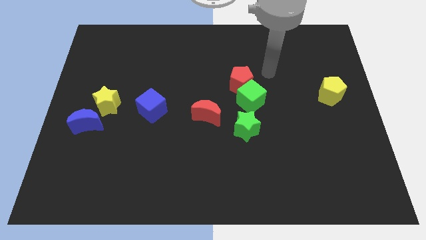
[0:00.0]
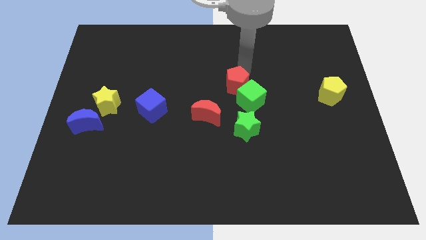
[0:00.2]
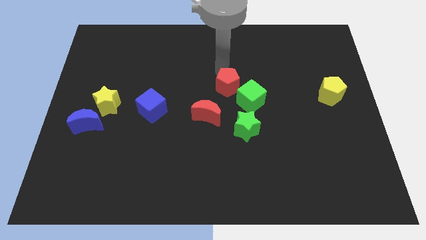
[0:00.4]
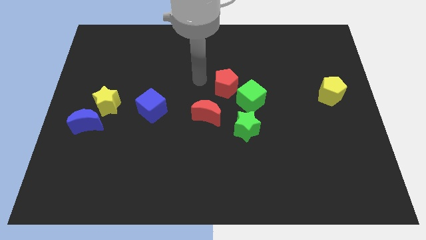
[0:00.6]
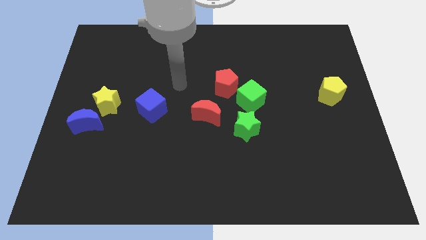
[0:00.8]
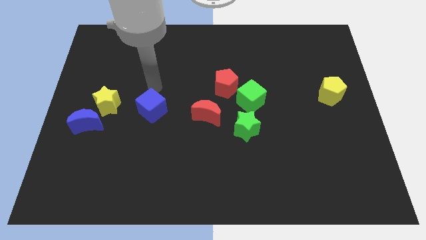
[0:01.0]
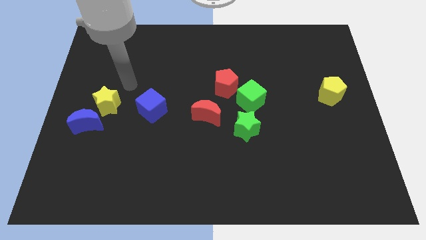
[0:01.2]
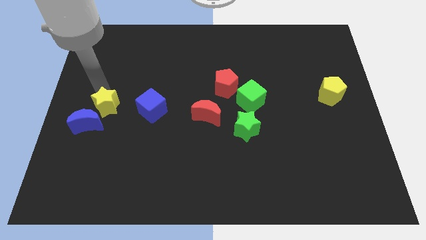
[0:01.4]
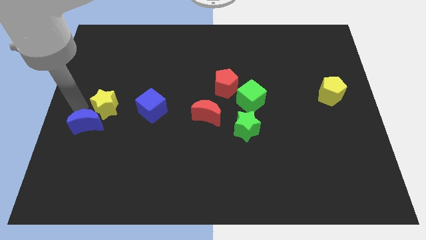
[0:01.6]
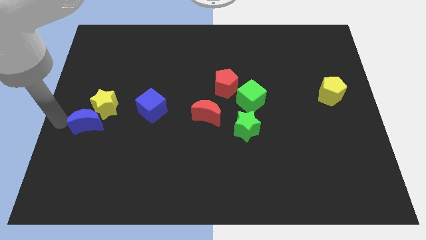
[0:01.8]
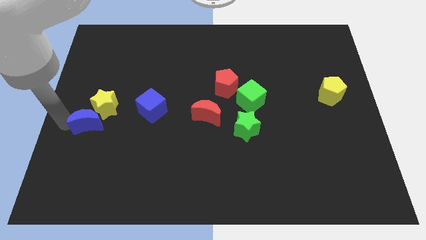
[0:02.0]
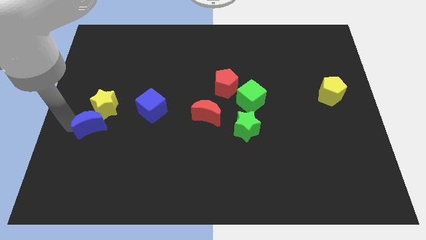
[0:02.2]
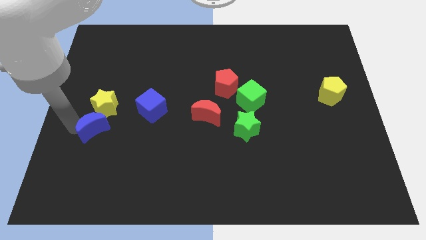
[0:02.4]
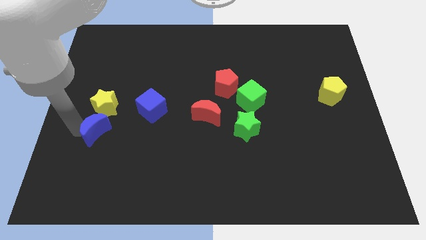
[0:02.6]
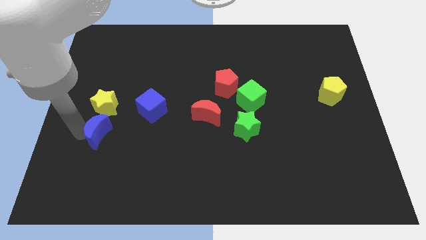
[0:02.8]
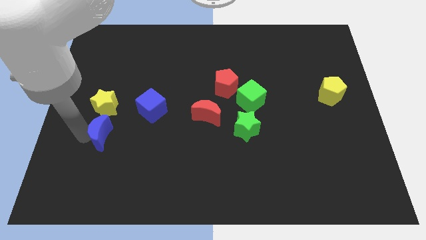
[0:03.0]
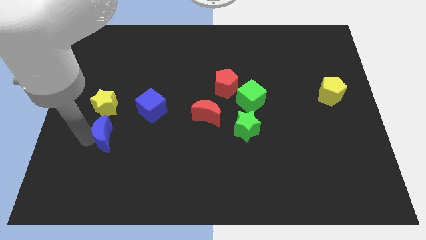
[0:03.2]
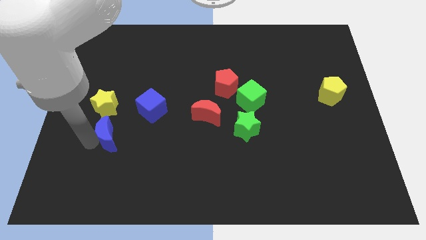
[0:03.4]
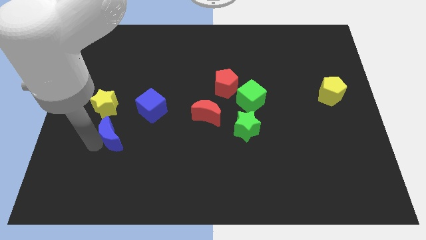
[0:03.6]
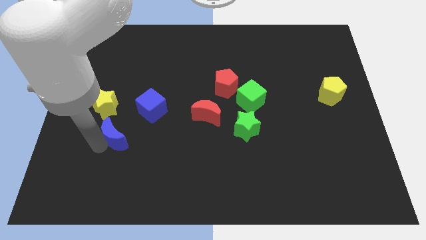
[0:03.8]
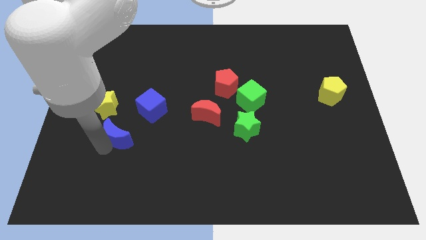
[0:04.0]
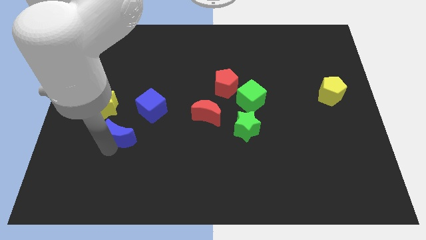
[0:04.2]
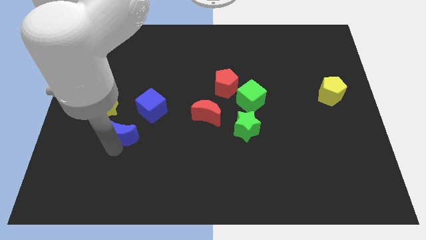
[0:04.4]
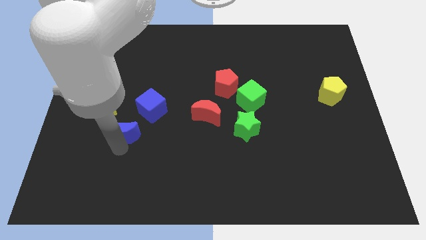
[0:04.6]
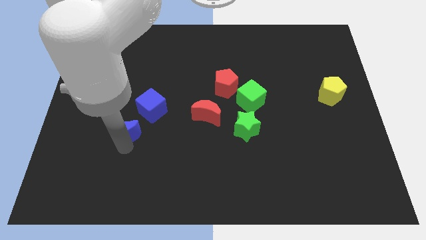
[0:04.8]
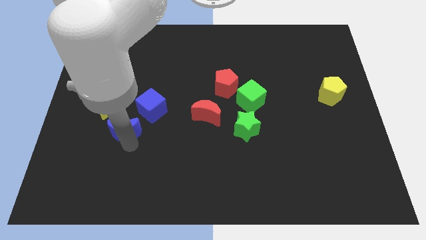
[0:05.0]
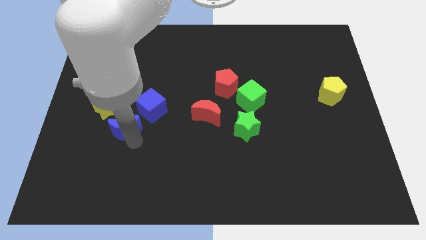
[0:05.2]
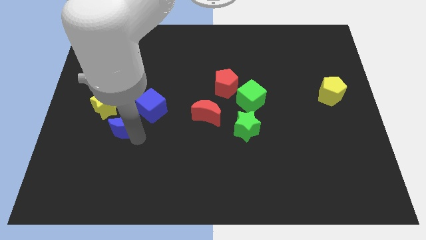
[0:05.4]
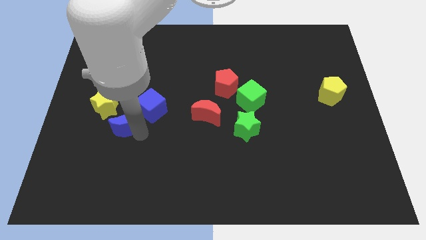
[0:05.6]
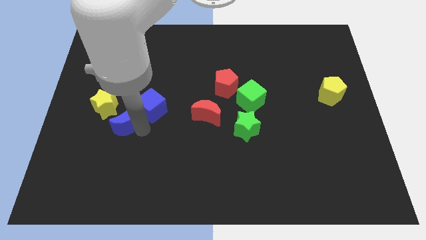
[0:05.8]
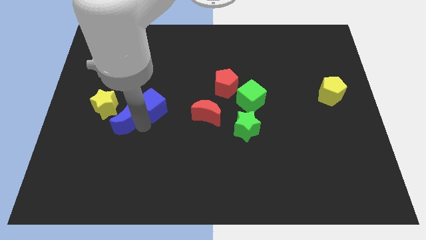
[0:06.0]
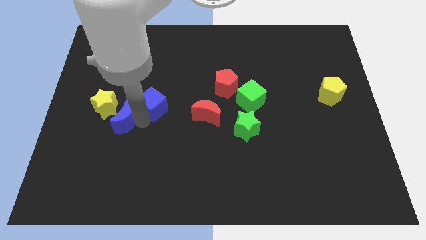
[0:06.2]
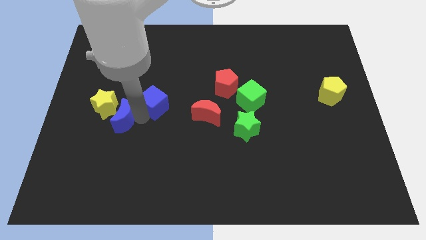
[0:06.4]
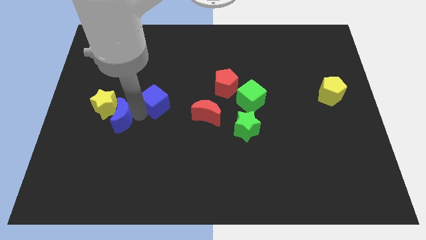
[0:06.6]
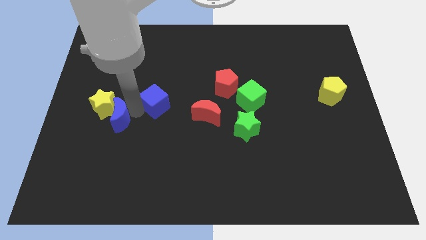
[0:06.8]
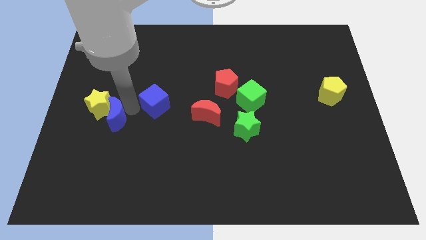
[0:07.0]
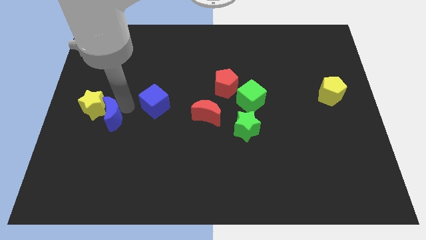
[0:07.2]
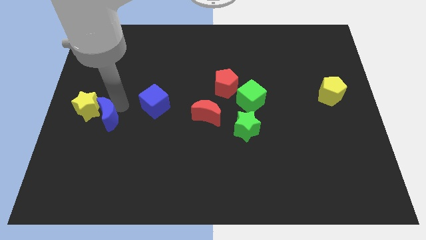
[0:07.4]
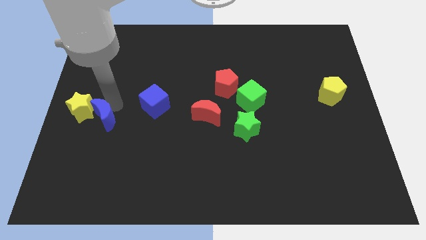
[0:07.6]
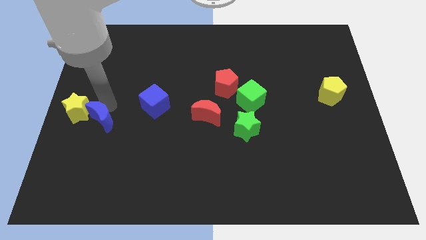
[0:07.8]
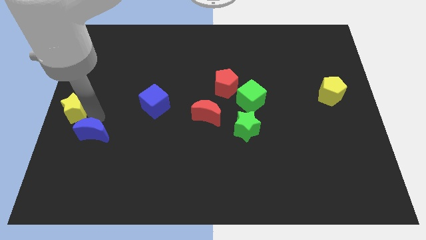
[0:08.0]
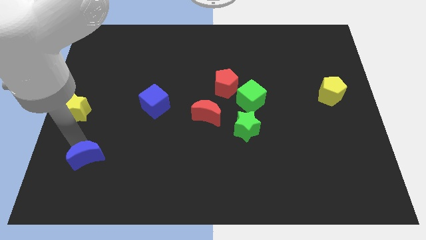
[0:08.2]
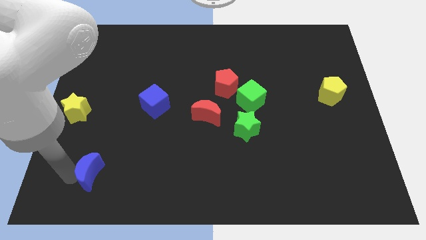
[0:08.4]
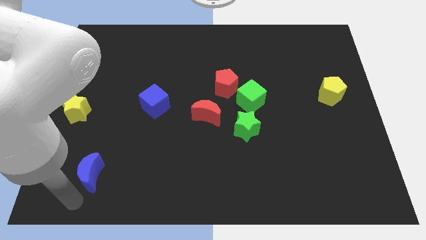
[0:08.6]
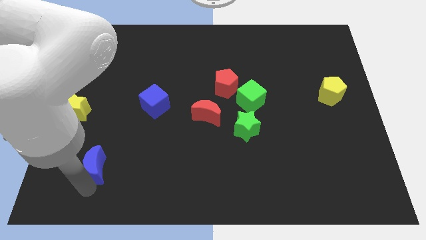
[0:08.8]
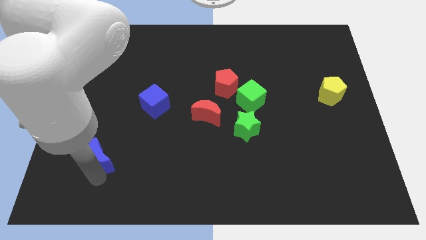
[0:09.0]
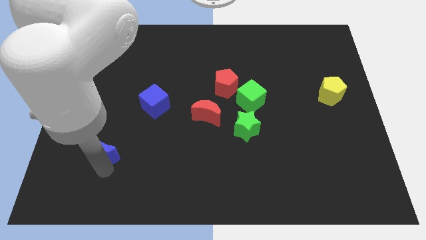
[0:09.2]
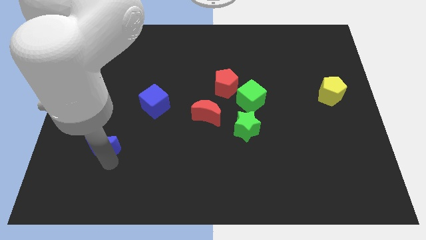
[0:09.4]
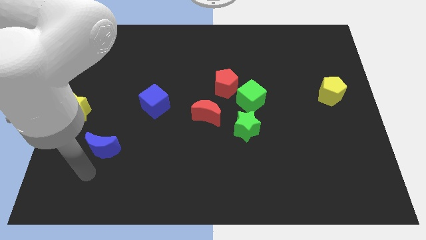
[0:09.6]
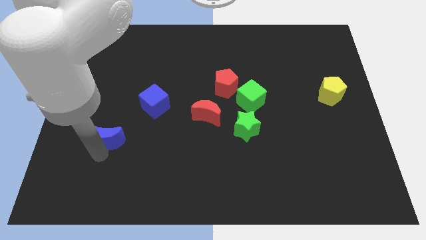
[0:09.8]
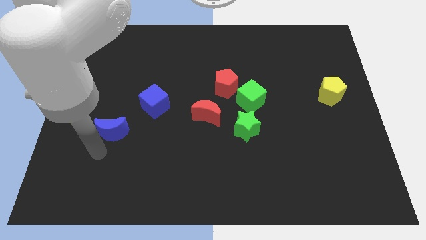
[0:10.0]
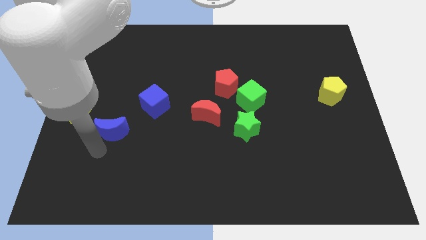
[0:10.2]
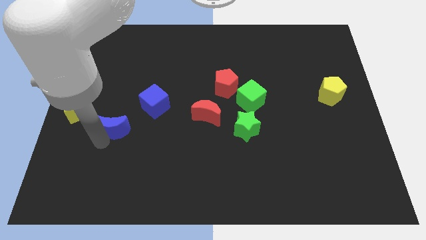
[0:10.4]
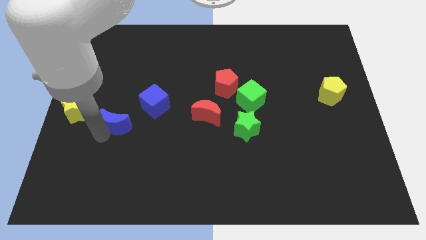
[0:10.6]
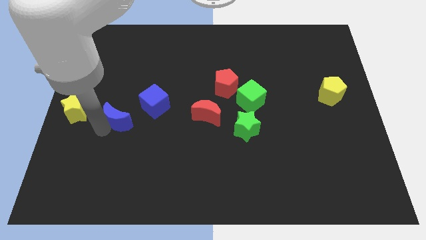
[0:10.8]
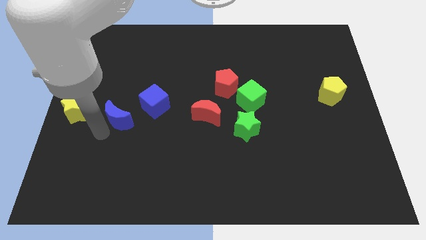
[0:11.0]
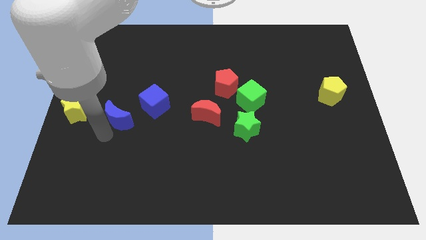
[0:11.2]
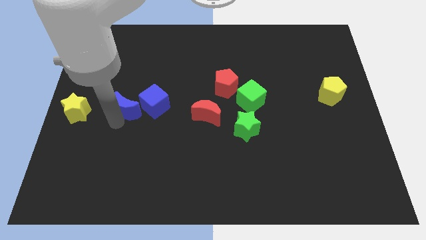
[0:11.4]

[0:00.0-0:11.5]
slightly slide the blue moon up and to the right diagonally

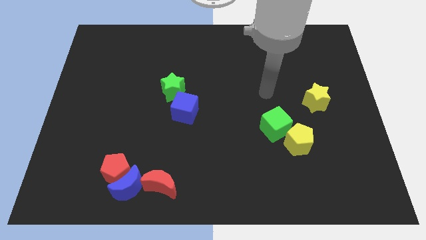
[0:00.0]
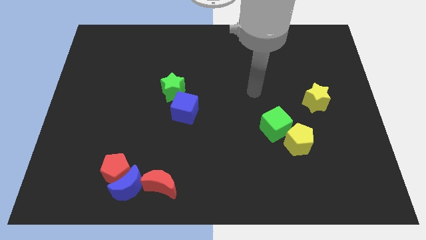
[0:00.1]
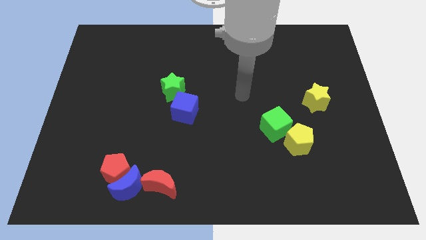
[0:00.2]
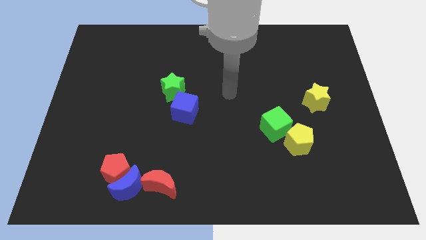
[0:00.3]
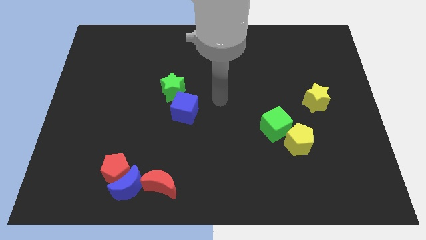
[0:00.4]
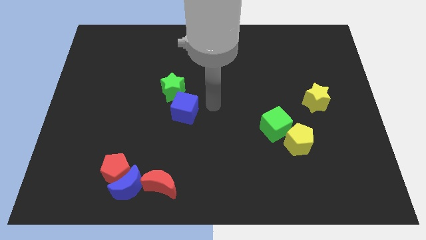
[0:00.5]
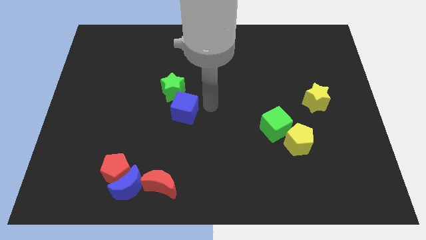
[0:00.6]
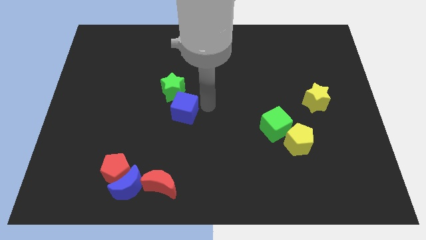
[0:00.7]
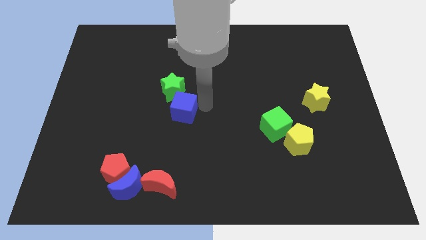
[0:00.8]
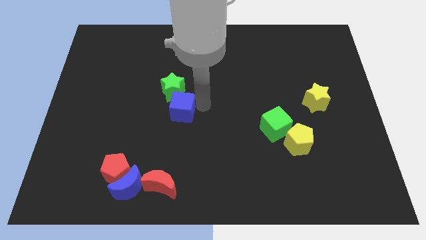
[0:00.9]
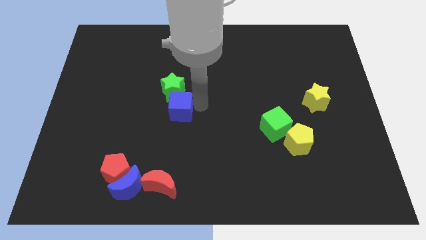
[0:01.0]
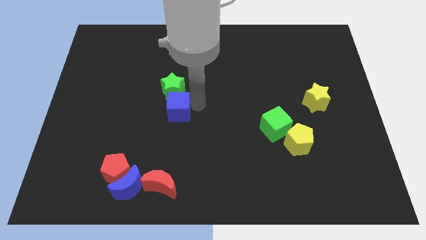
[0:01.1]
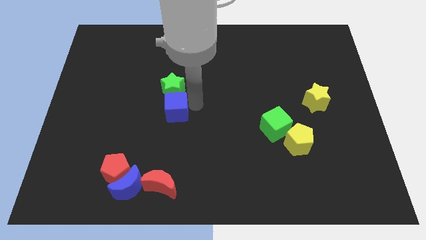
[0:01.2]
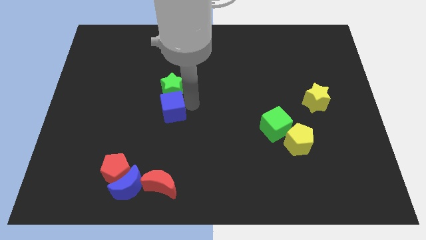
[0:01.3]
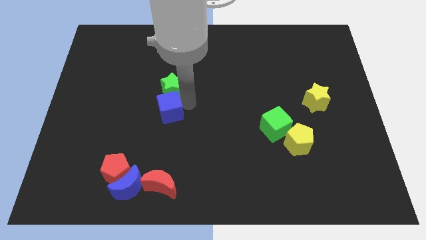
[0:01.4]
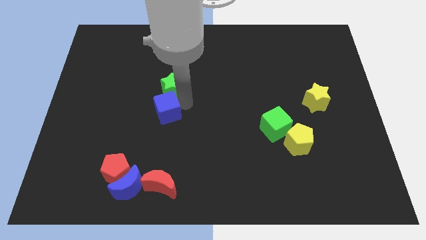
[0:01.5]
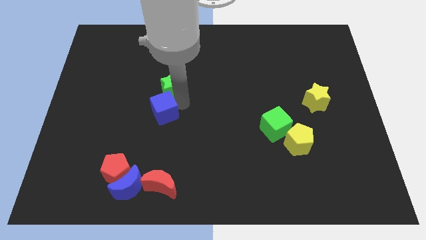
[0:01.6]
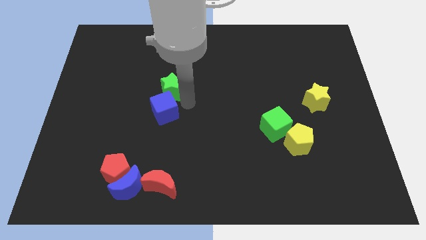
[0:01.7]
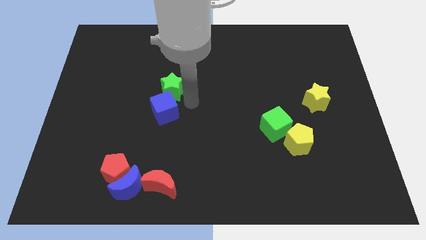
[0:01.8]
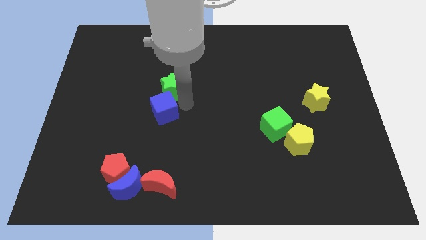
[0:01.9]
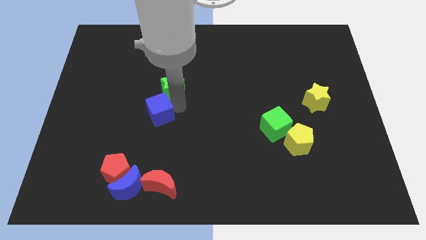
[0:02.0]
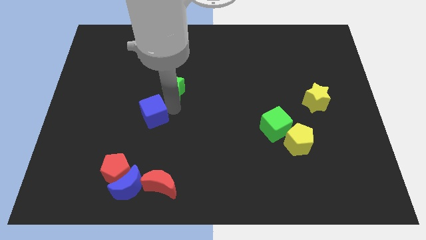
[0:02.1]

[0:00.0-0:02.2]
move the blue cube to the left somewhat
